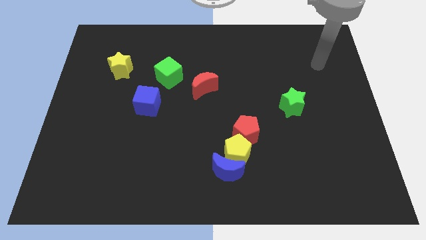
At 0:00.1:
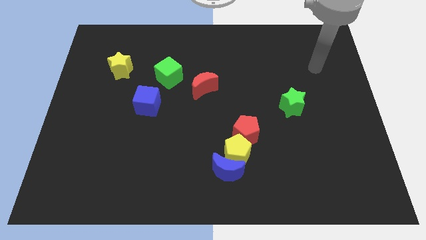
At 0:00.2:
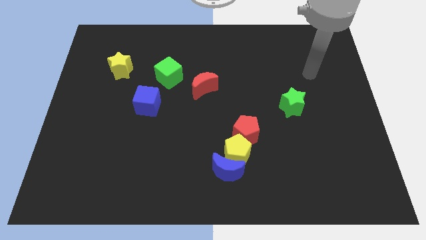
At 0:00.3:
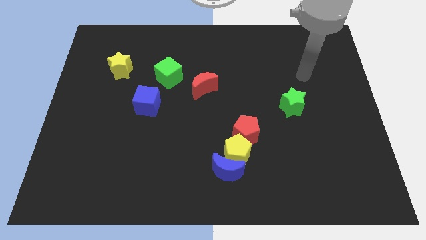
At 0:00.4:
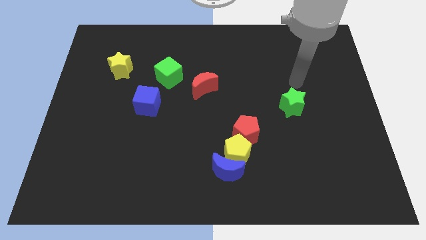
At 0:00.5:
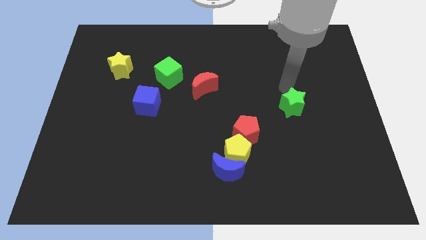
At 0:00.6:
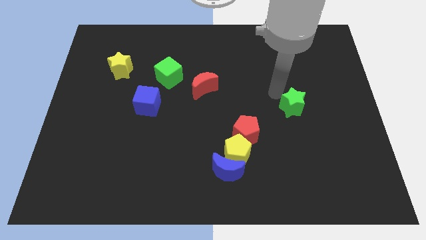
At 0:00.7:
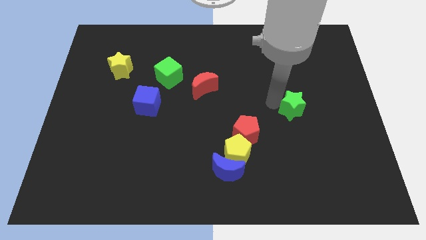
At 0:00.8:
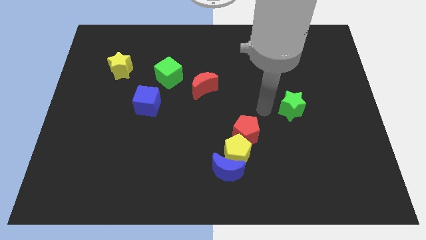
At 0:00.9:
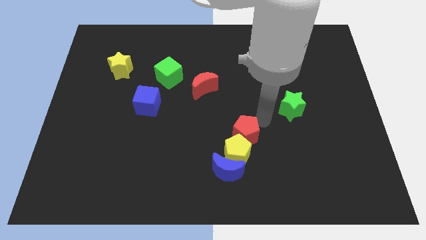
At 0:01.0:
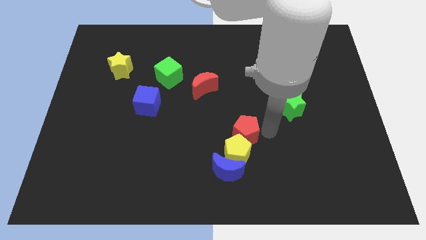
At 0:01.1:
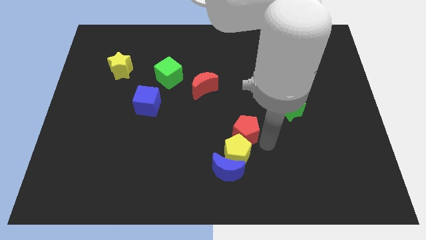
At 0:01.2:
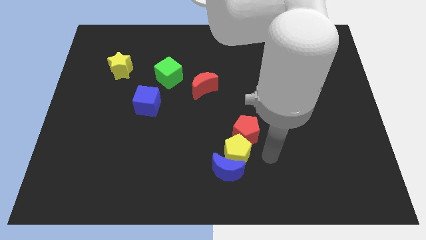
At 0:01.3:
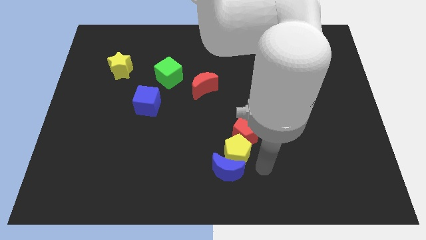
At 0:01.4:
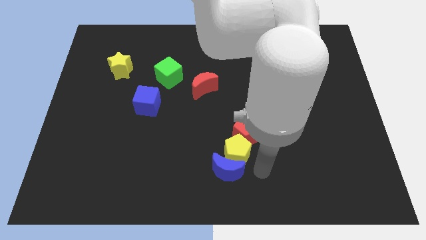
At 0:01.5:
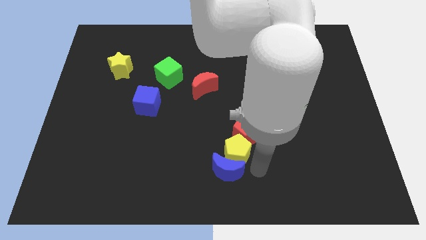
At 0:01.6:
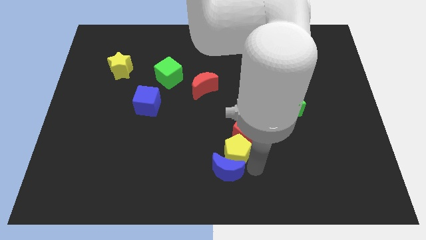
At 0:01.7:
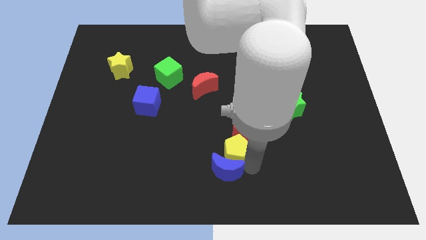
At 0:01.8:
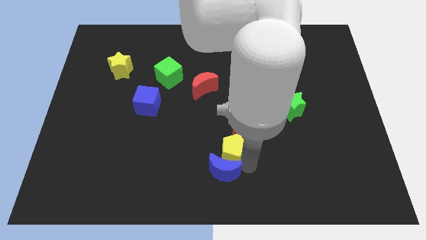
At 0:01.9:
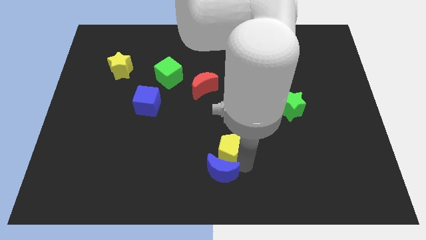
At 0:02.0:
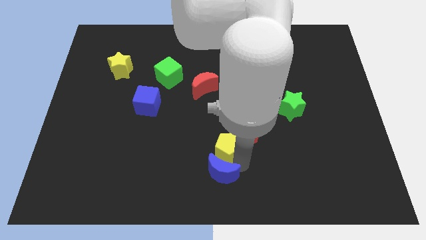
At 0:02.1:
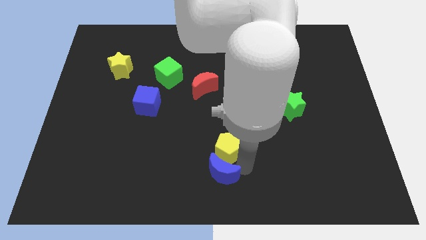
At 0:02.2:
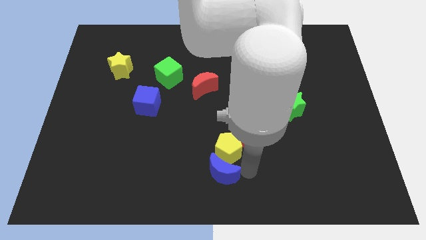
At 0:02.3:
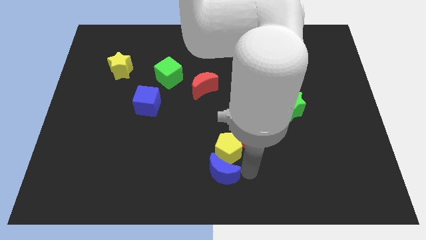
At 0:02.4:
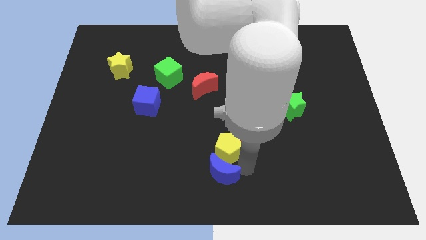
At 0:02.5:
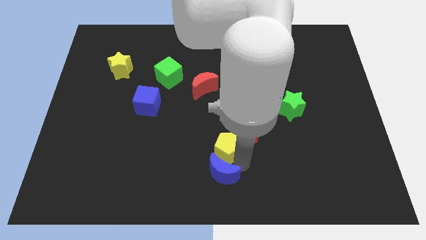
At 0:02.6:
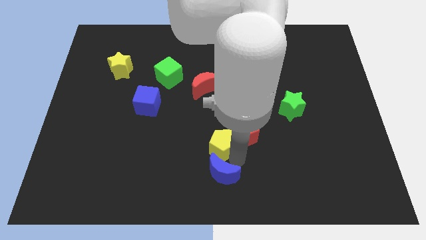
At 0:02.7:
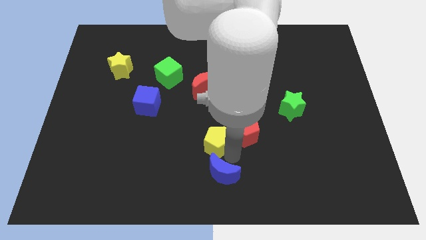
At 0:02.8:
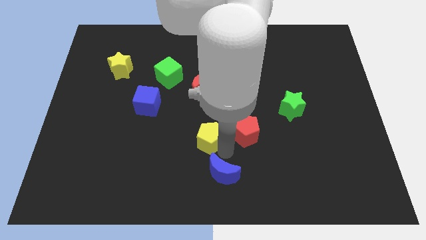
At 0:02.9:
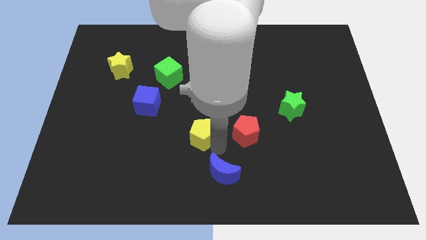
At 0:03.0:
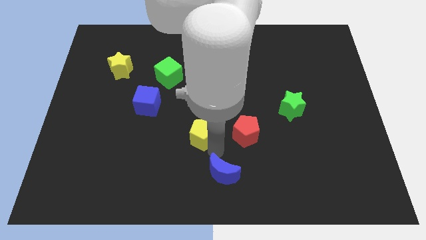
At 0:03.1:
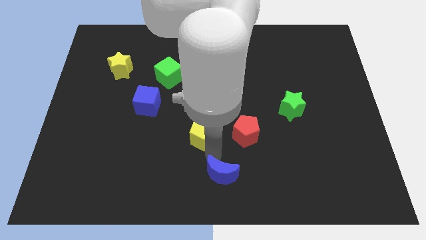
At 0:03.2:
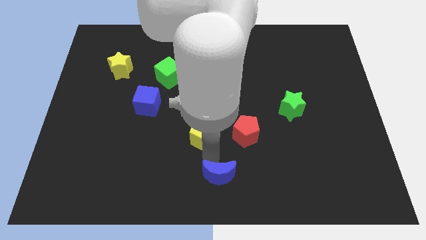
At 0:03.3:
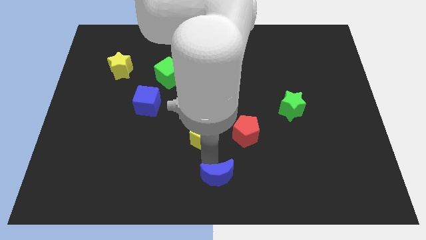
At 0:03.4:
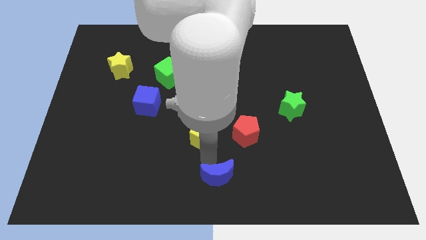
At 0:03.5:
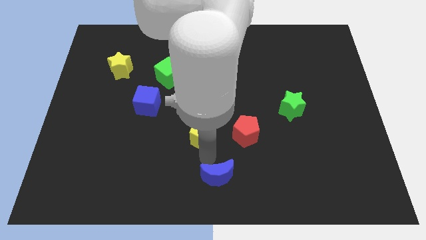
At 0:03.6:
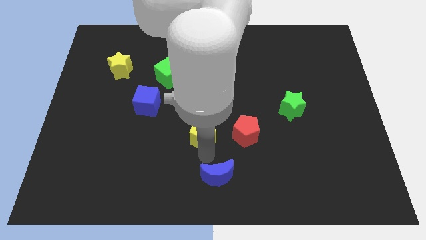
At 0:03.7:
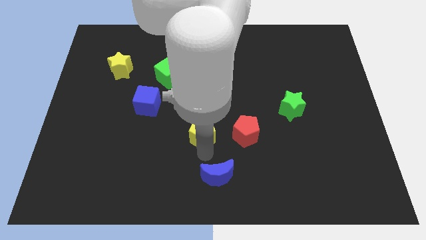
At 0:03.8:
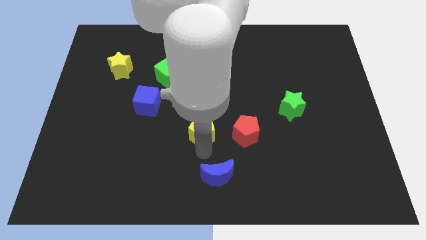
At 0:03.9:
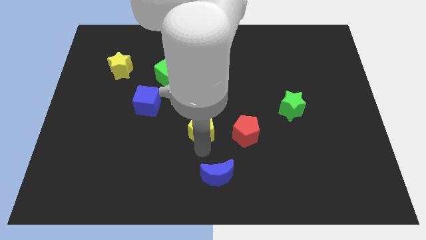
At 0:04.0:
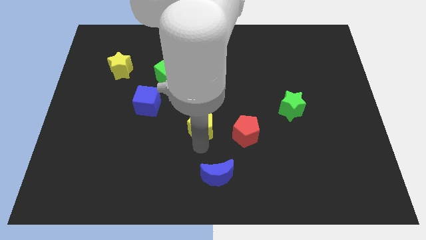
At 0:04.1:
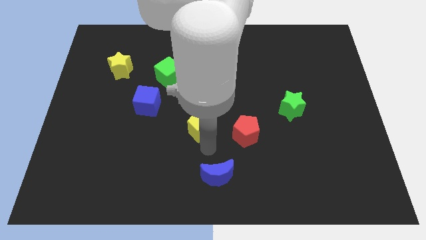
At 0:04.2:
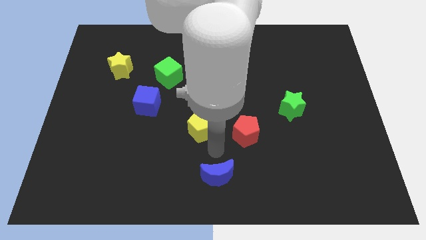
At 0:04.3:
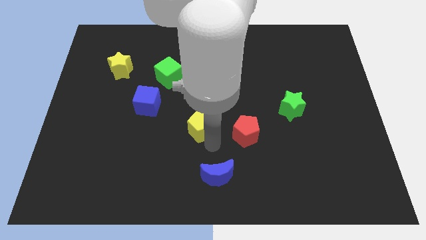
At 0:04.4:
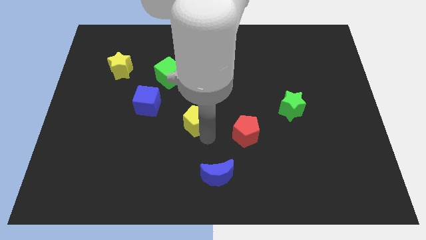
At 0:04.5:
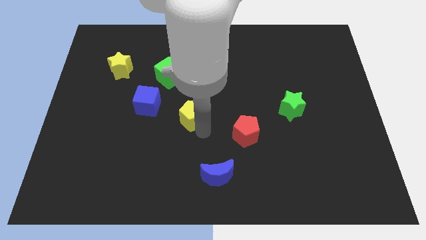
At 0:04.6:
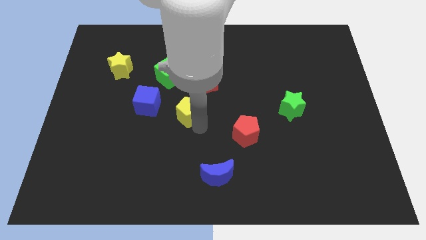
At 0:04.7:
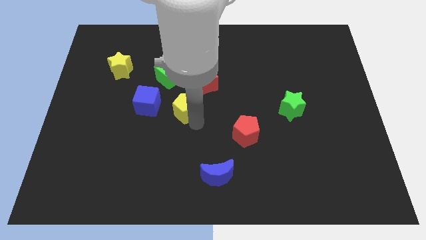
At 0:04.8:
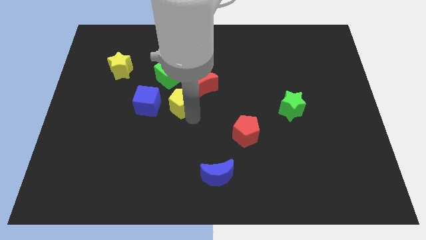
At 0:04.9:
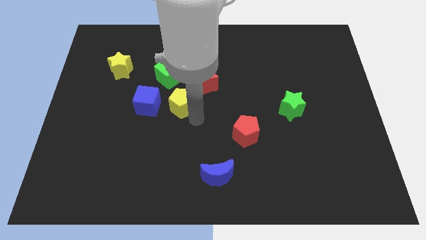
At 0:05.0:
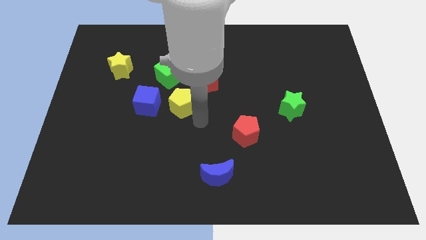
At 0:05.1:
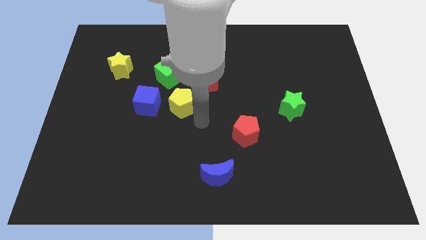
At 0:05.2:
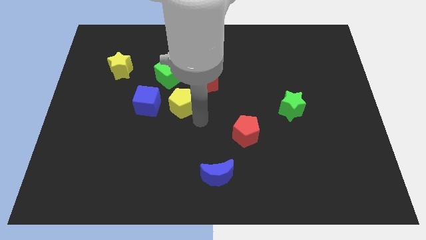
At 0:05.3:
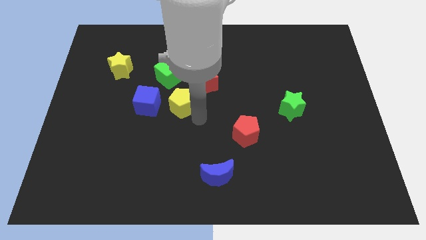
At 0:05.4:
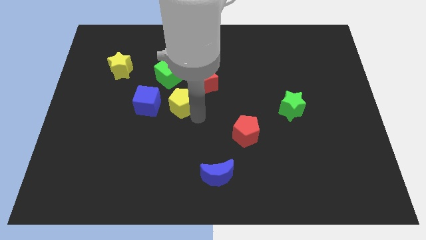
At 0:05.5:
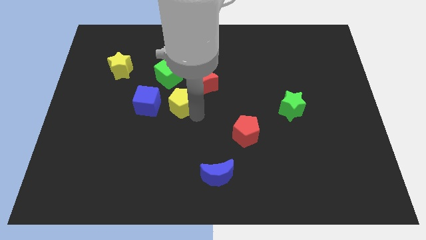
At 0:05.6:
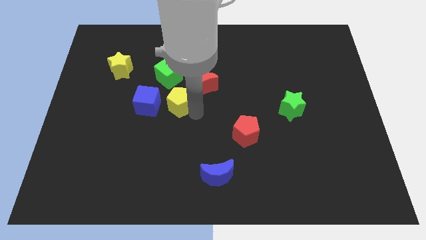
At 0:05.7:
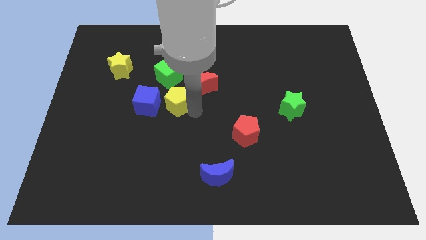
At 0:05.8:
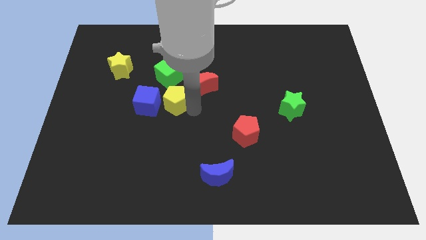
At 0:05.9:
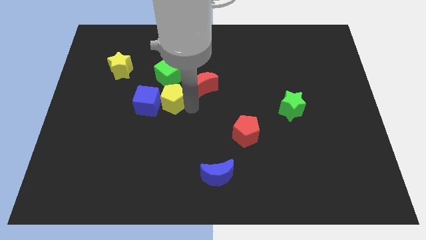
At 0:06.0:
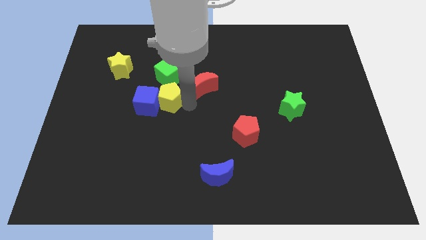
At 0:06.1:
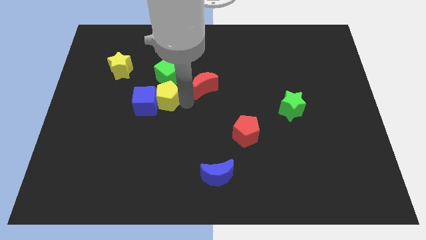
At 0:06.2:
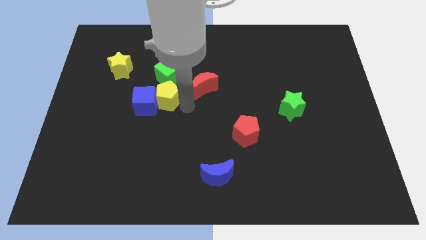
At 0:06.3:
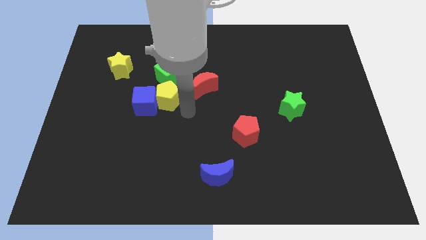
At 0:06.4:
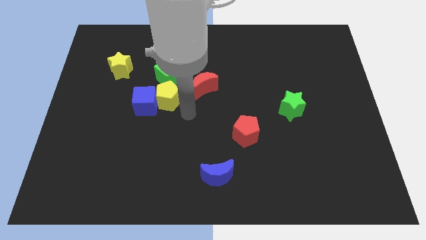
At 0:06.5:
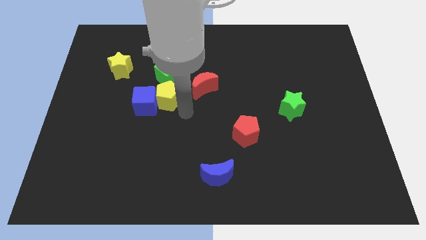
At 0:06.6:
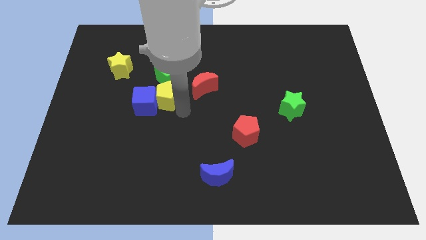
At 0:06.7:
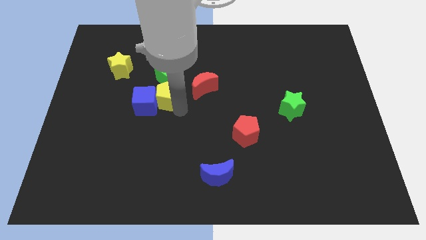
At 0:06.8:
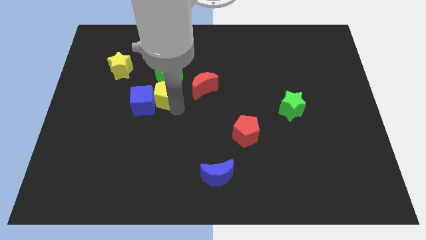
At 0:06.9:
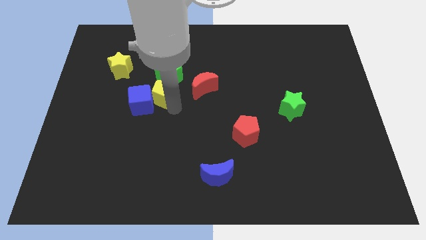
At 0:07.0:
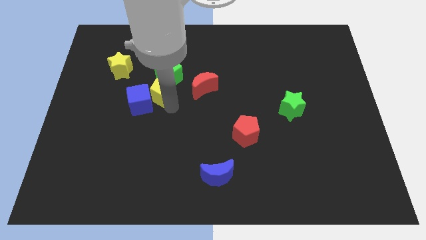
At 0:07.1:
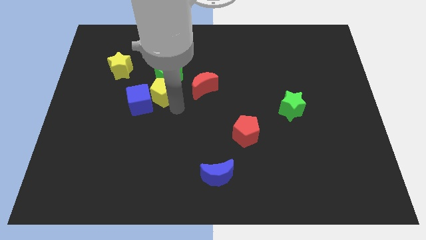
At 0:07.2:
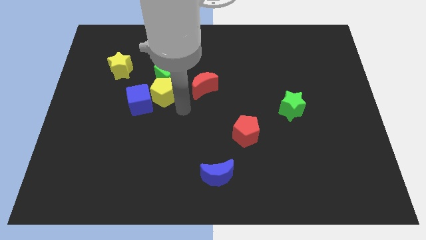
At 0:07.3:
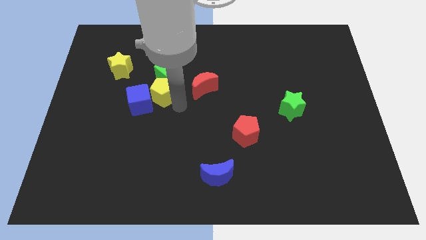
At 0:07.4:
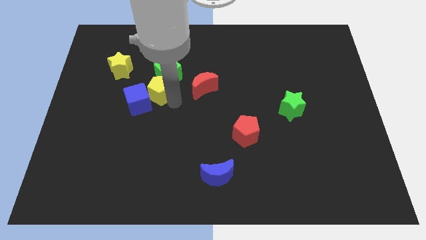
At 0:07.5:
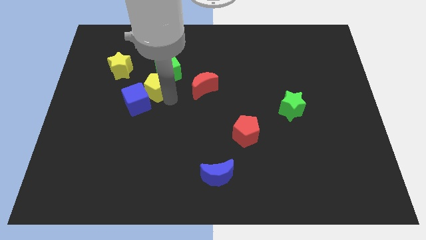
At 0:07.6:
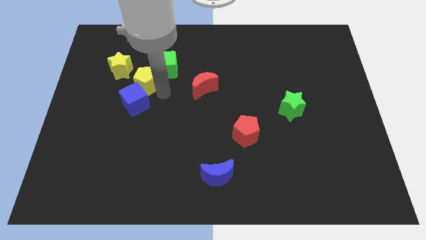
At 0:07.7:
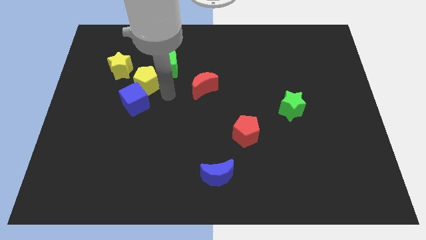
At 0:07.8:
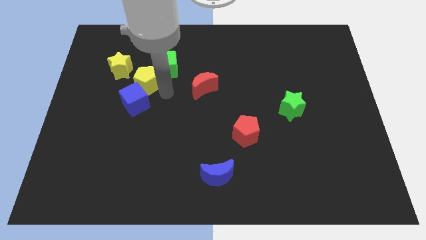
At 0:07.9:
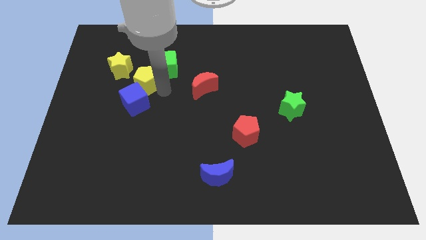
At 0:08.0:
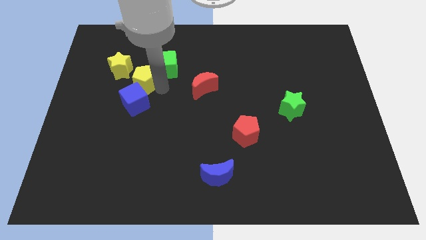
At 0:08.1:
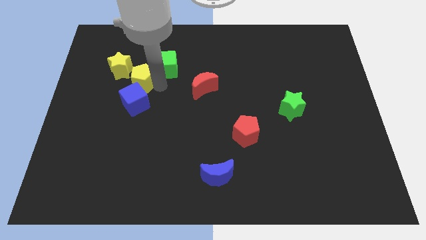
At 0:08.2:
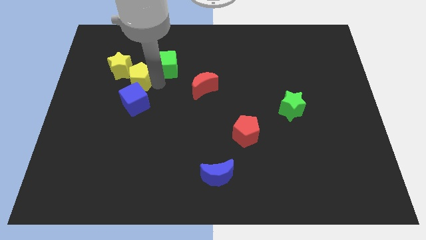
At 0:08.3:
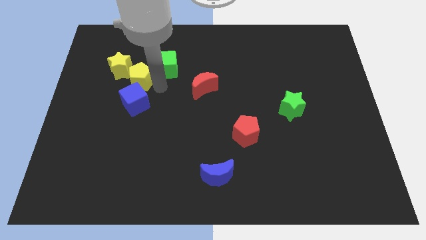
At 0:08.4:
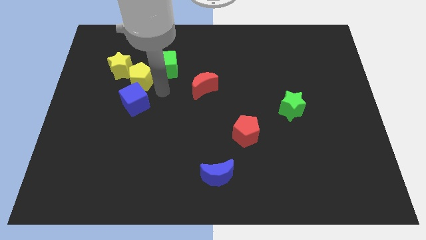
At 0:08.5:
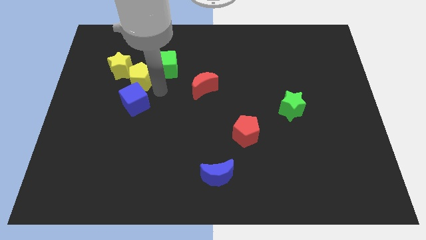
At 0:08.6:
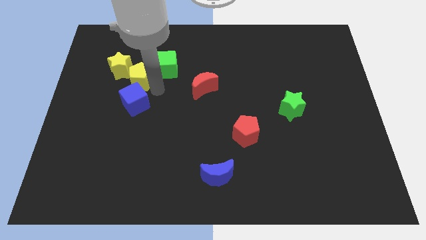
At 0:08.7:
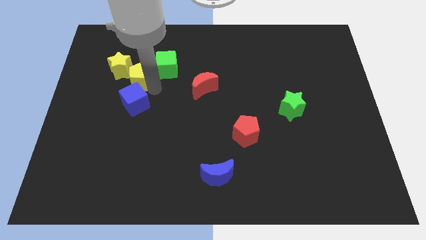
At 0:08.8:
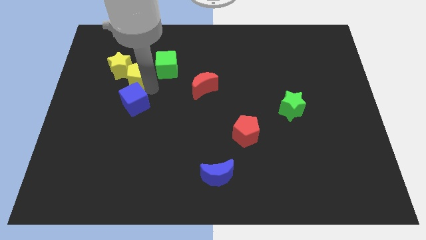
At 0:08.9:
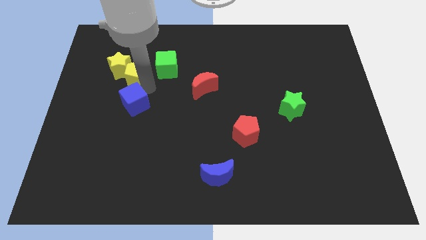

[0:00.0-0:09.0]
push the yellow pentagon close to the yellow star
